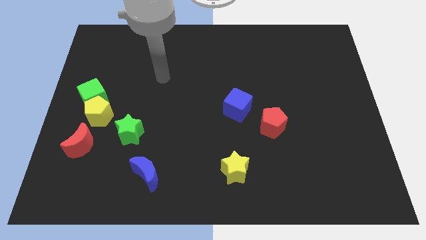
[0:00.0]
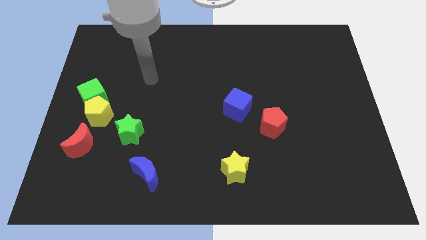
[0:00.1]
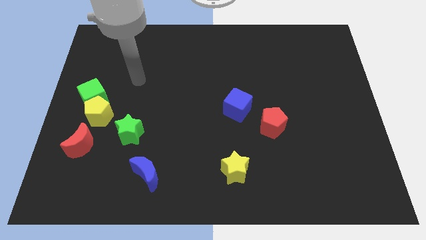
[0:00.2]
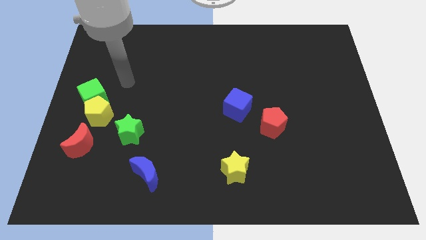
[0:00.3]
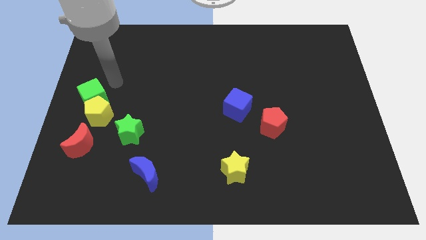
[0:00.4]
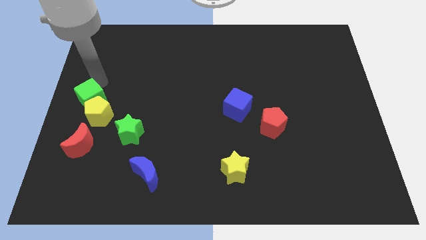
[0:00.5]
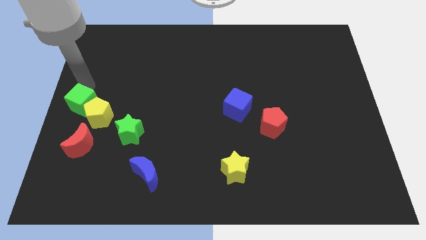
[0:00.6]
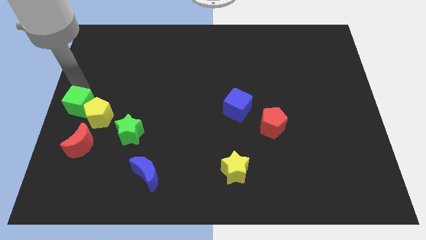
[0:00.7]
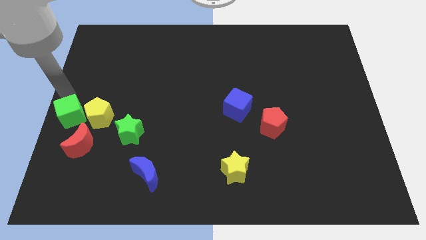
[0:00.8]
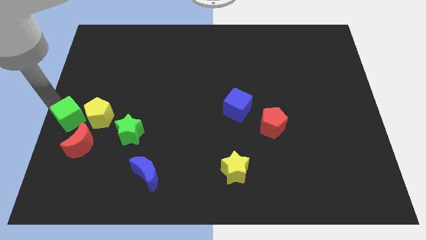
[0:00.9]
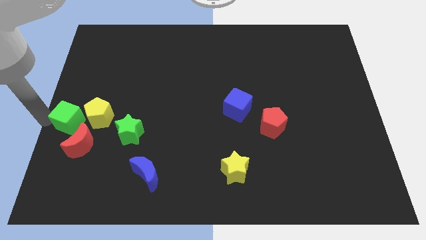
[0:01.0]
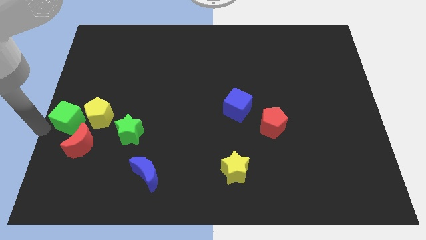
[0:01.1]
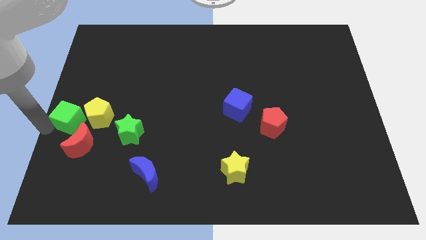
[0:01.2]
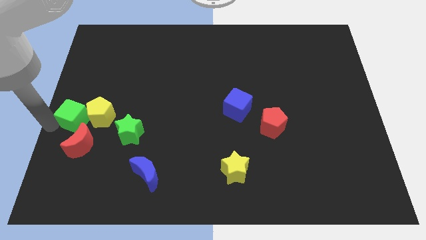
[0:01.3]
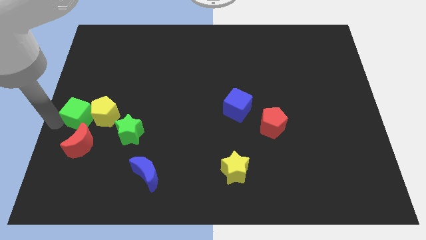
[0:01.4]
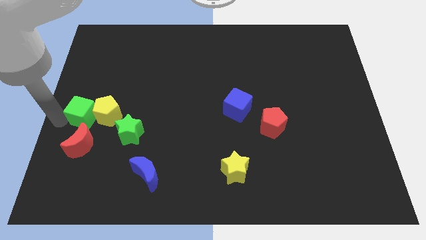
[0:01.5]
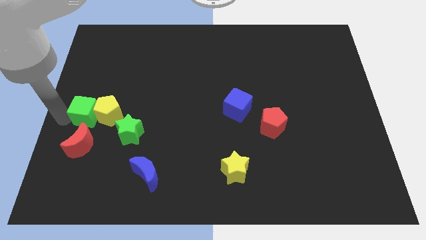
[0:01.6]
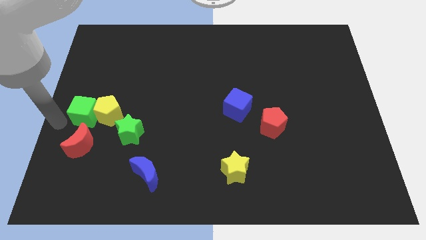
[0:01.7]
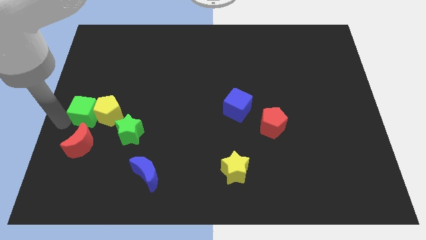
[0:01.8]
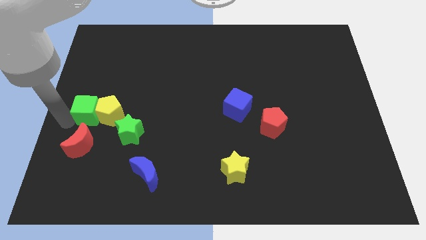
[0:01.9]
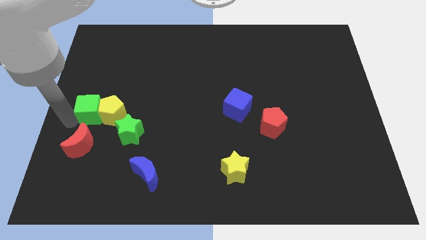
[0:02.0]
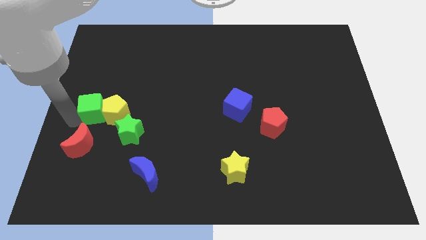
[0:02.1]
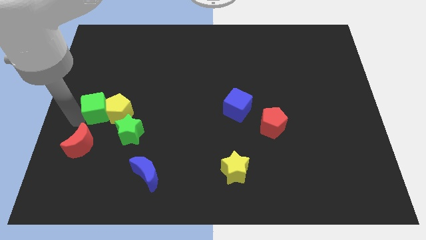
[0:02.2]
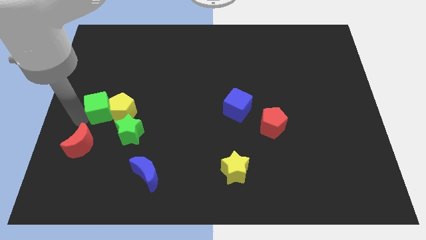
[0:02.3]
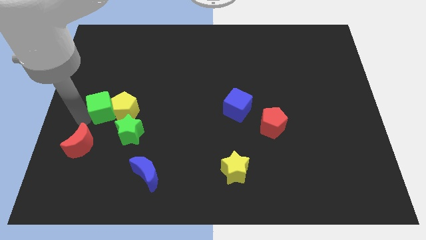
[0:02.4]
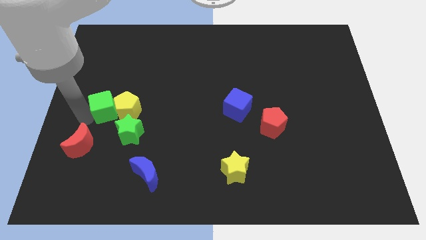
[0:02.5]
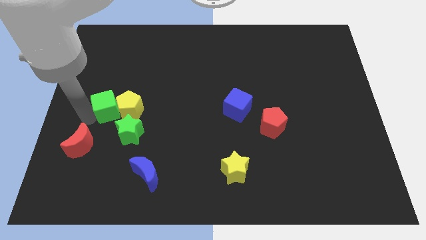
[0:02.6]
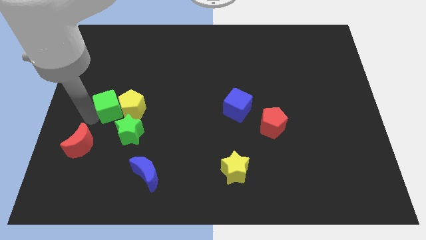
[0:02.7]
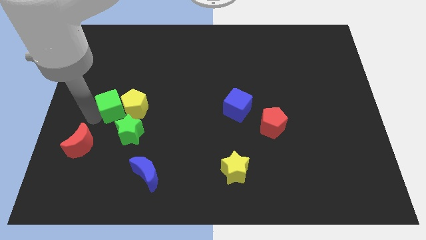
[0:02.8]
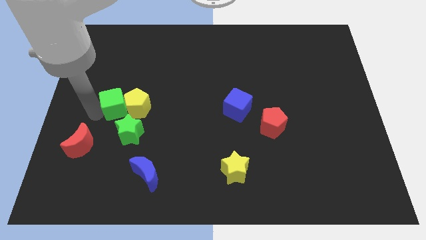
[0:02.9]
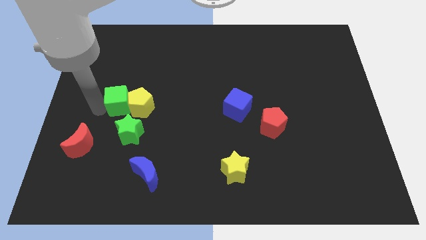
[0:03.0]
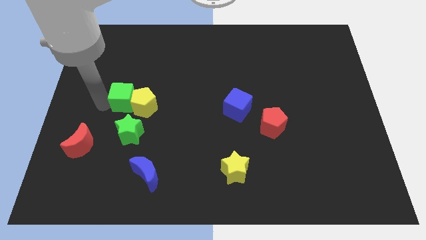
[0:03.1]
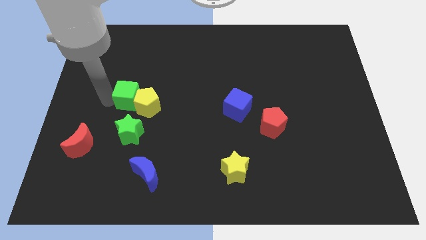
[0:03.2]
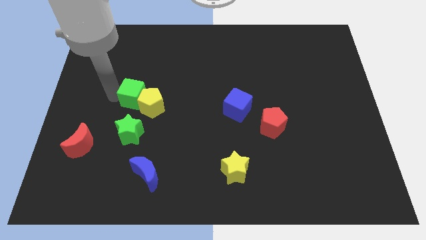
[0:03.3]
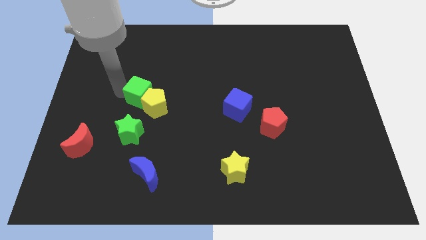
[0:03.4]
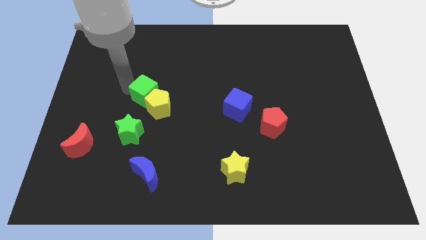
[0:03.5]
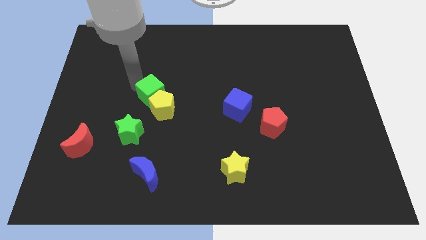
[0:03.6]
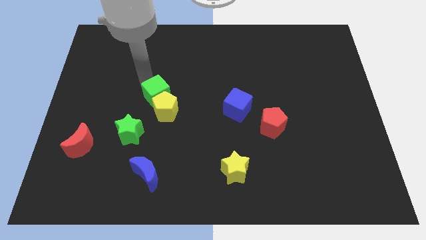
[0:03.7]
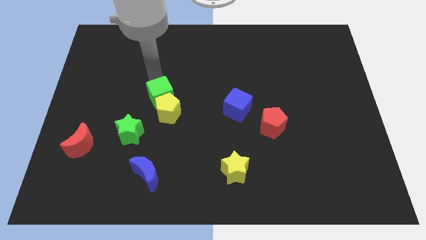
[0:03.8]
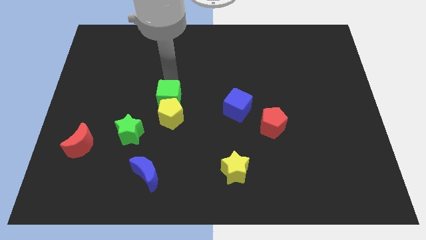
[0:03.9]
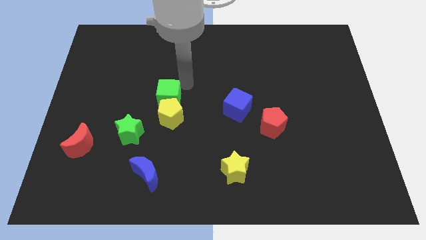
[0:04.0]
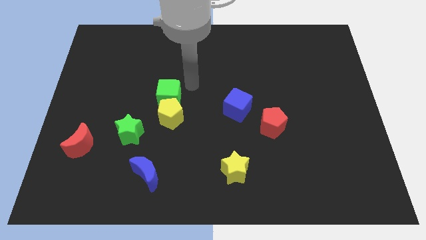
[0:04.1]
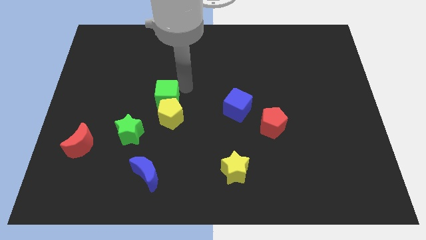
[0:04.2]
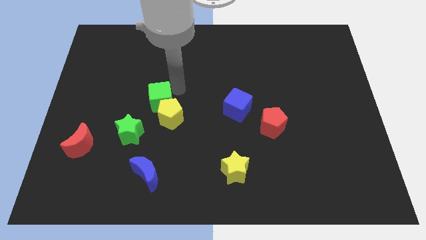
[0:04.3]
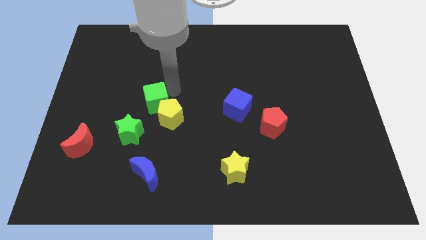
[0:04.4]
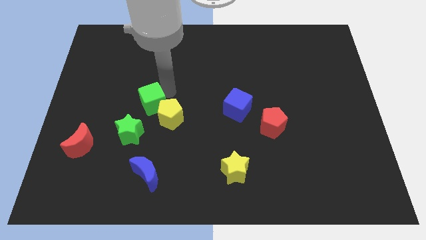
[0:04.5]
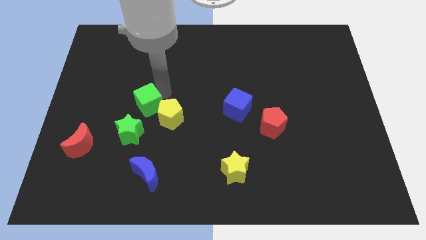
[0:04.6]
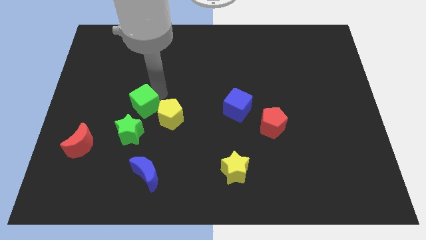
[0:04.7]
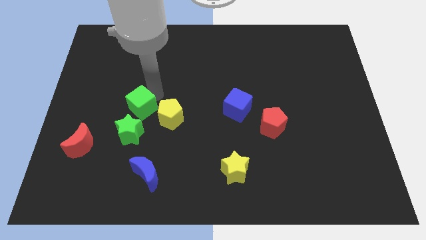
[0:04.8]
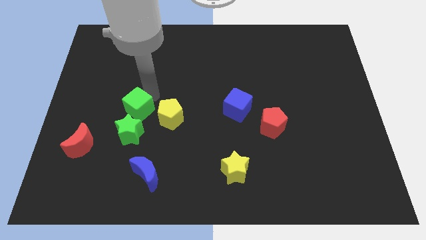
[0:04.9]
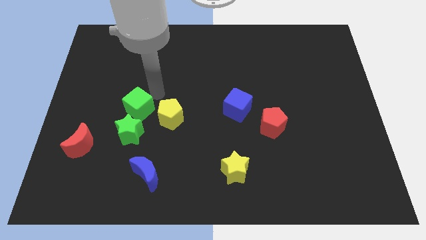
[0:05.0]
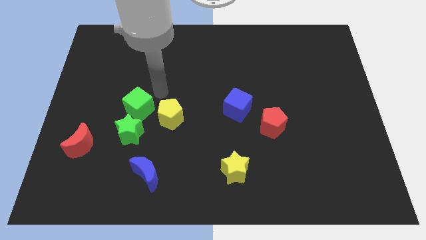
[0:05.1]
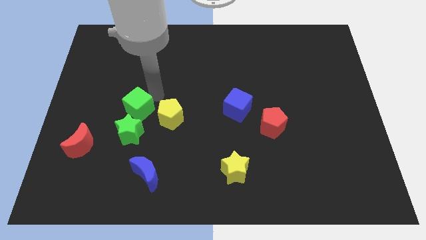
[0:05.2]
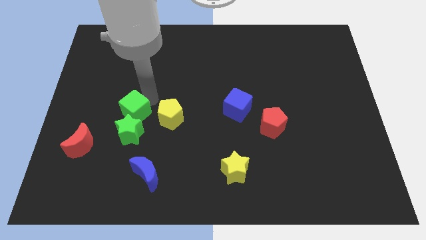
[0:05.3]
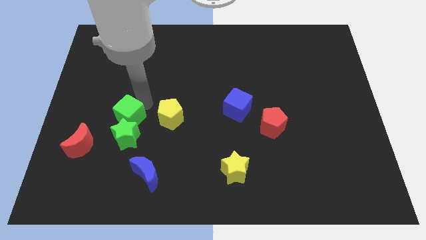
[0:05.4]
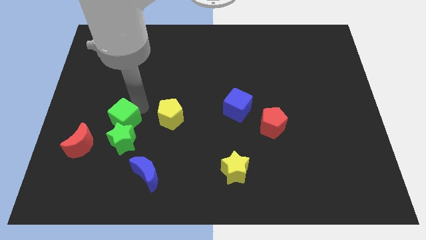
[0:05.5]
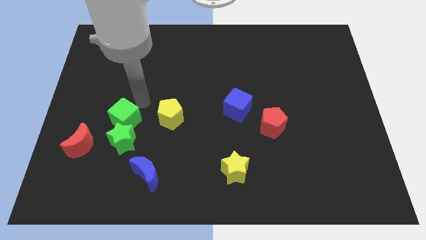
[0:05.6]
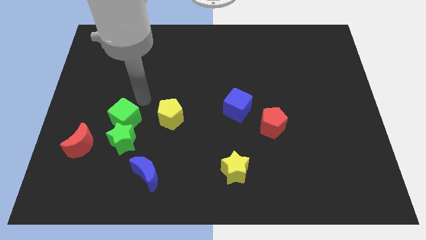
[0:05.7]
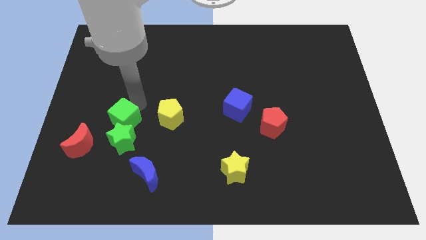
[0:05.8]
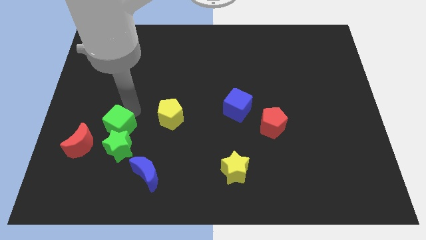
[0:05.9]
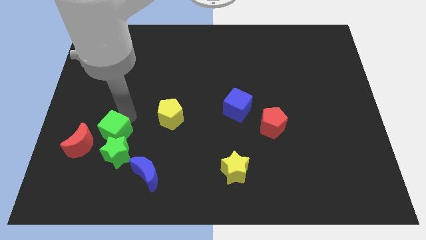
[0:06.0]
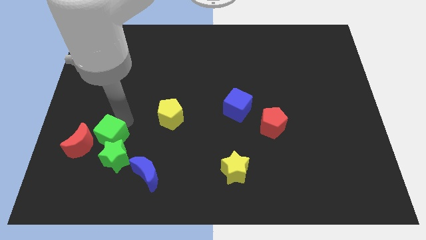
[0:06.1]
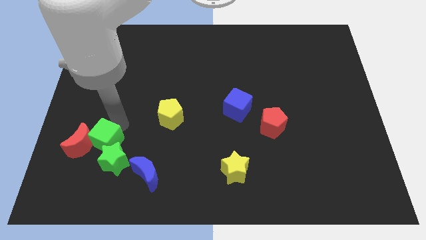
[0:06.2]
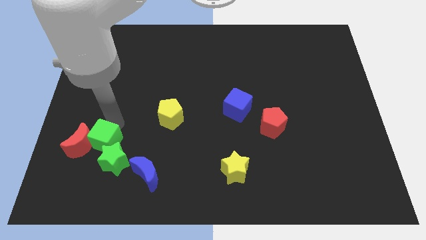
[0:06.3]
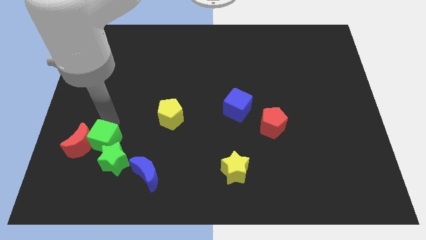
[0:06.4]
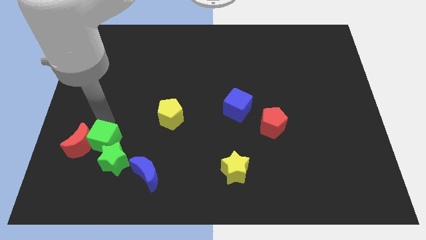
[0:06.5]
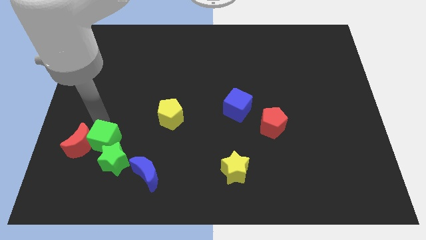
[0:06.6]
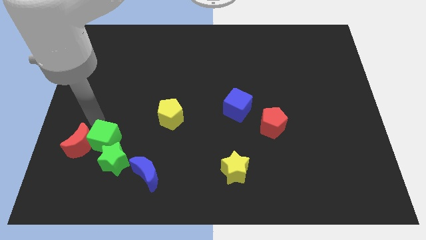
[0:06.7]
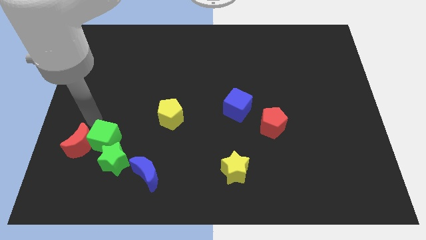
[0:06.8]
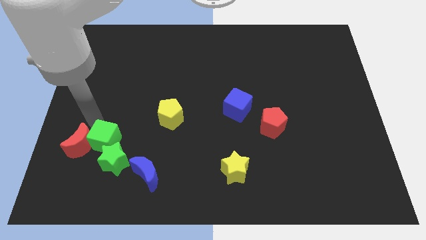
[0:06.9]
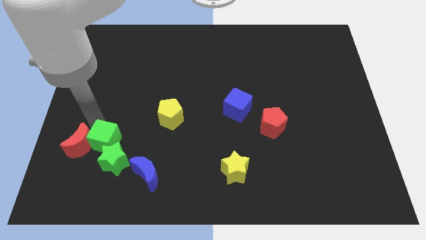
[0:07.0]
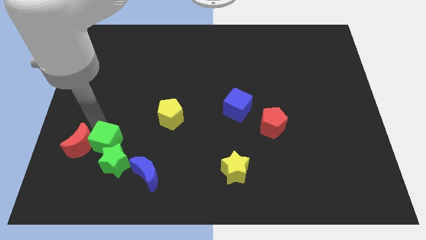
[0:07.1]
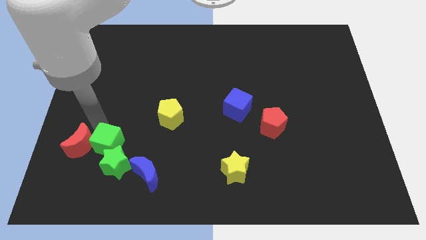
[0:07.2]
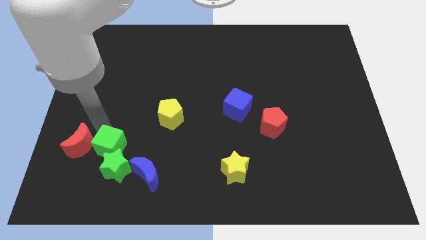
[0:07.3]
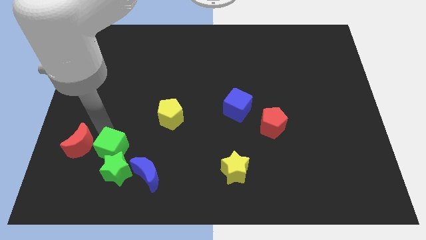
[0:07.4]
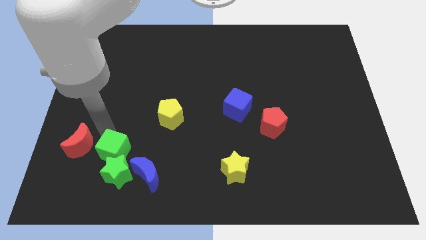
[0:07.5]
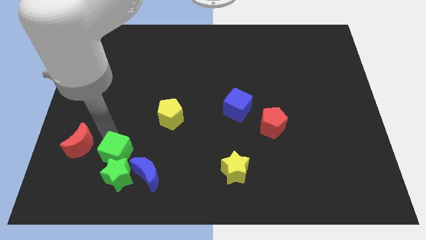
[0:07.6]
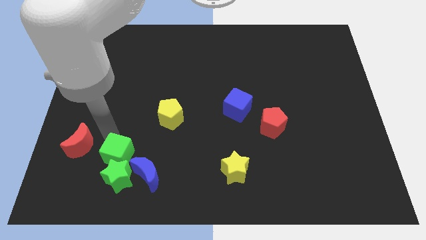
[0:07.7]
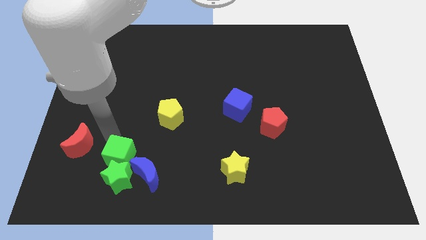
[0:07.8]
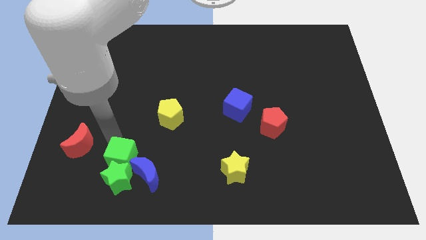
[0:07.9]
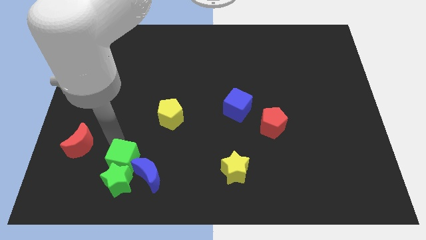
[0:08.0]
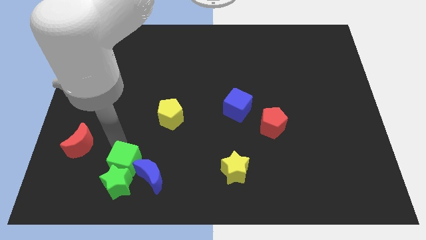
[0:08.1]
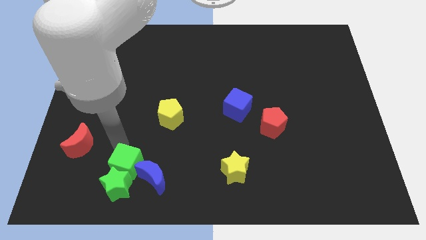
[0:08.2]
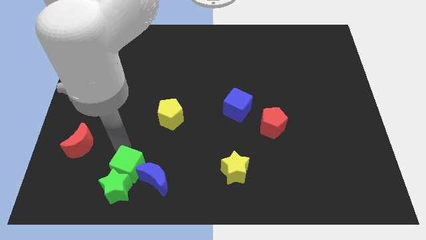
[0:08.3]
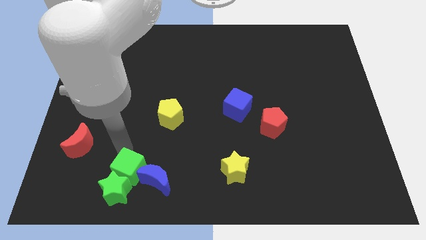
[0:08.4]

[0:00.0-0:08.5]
slide the green cube close to the blue moon
